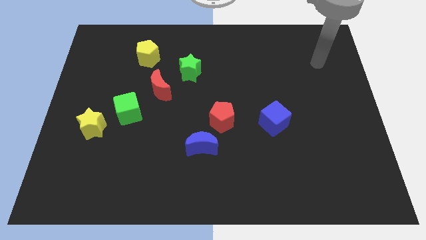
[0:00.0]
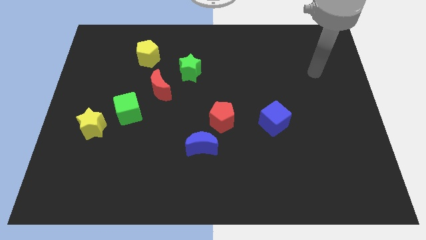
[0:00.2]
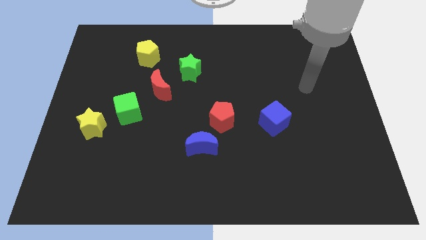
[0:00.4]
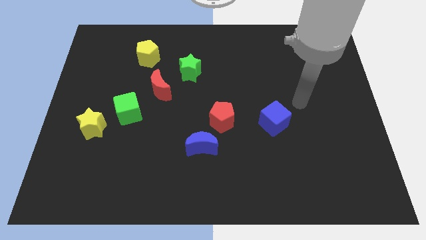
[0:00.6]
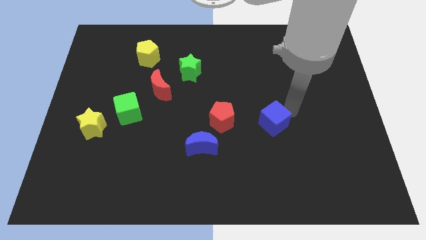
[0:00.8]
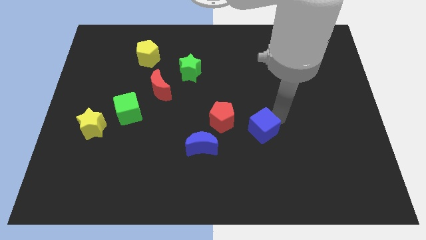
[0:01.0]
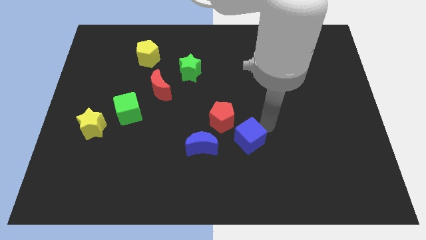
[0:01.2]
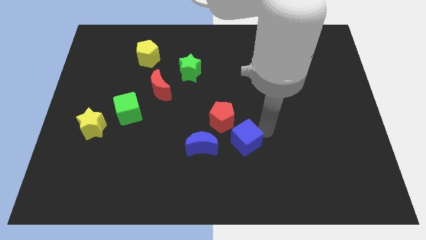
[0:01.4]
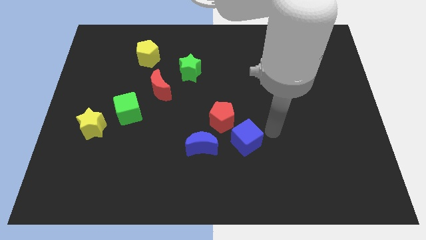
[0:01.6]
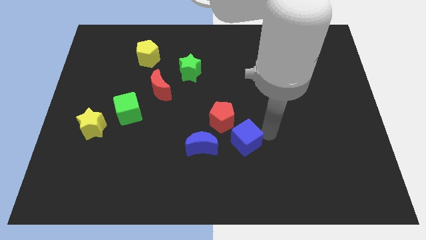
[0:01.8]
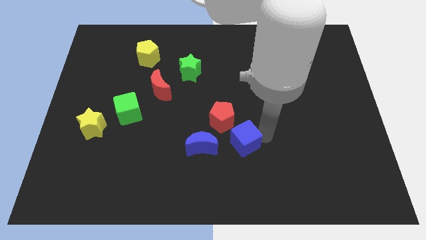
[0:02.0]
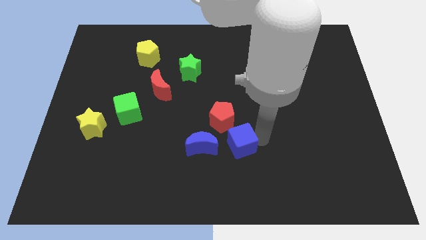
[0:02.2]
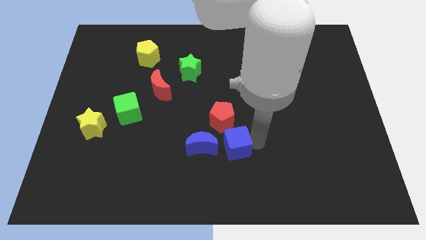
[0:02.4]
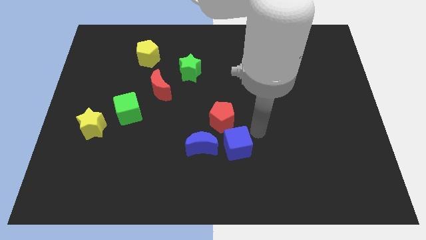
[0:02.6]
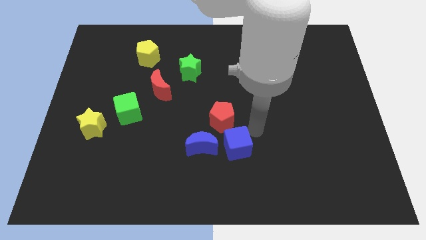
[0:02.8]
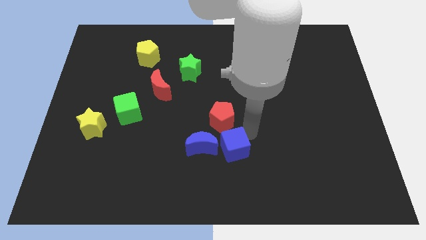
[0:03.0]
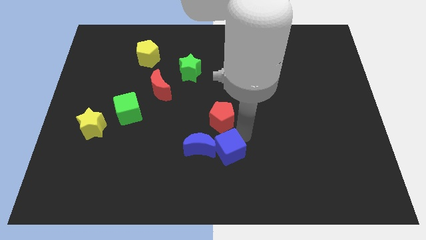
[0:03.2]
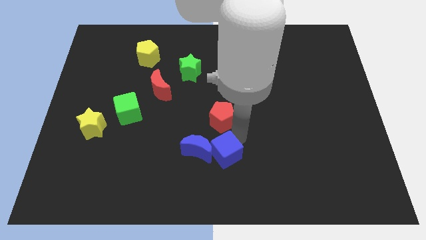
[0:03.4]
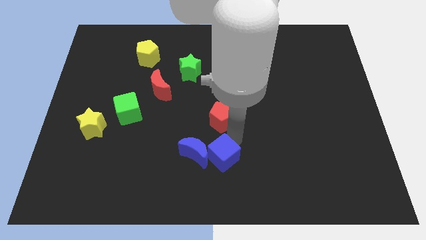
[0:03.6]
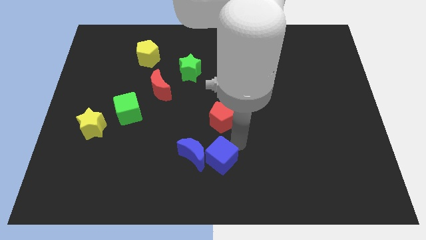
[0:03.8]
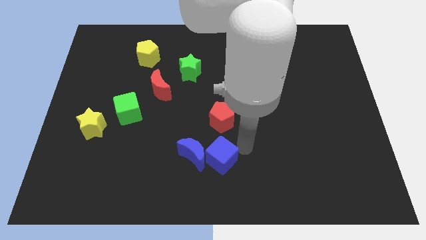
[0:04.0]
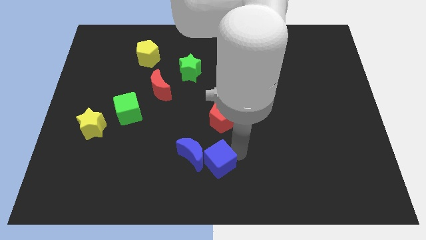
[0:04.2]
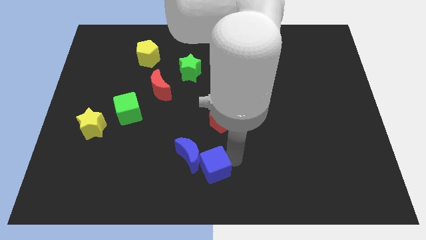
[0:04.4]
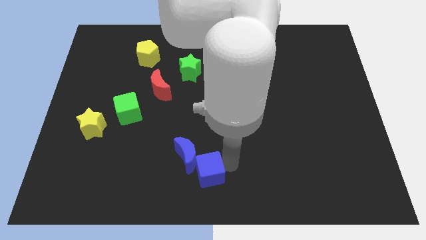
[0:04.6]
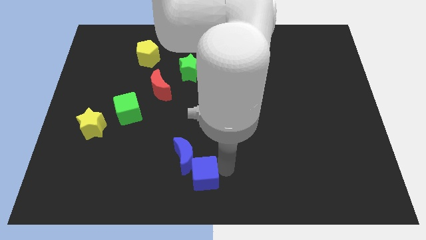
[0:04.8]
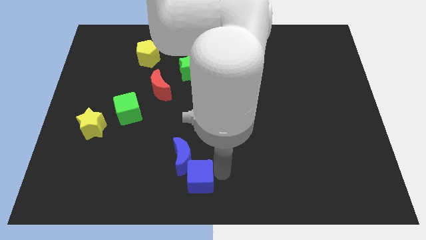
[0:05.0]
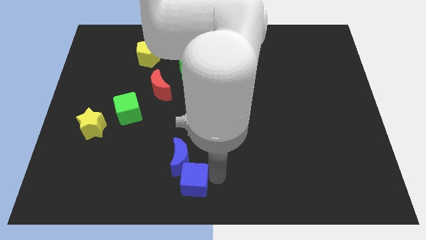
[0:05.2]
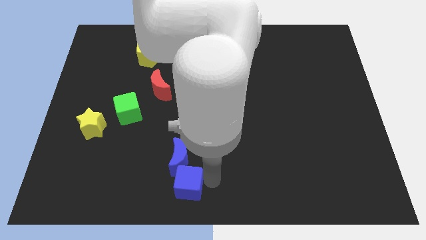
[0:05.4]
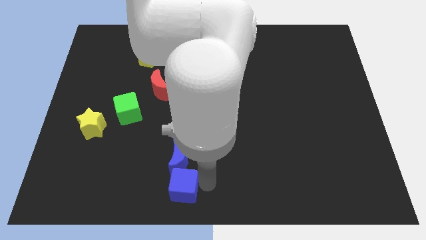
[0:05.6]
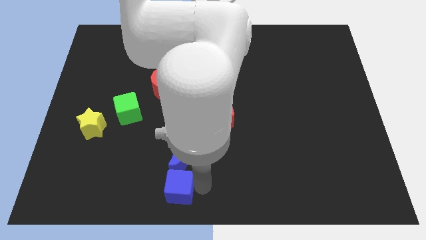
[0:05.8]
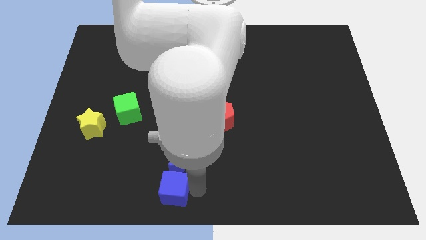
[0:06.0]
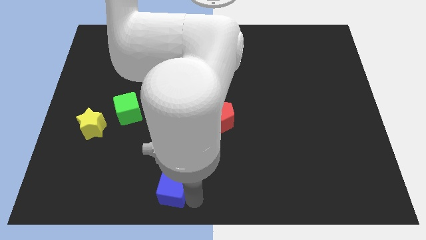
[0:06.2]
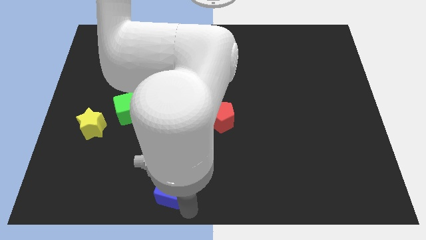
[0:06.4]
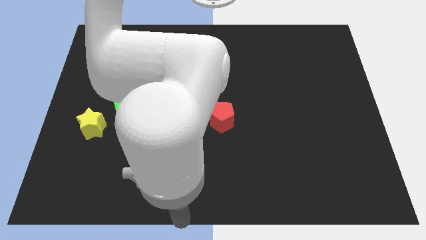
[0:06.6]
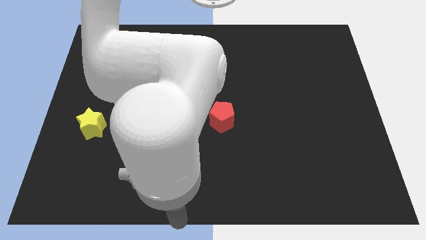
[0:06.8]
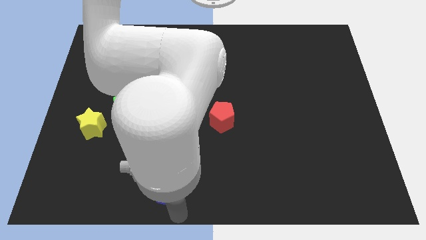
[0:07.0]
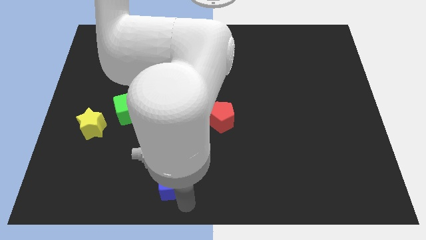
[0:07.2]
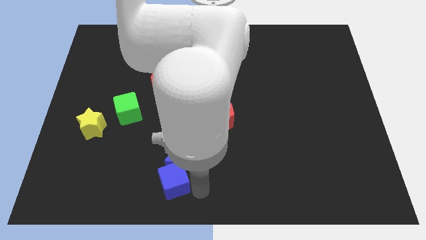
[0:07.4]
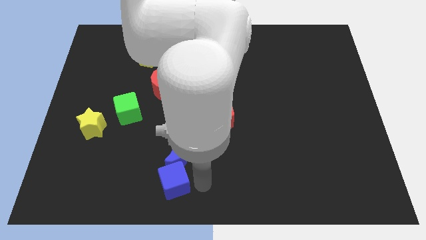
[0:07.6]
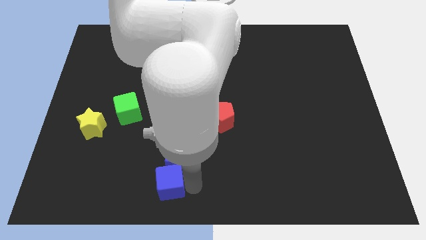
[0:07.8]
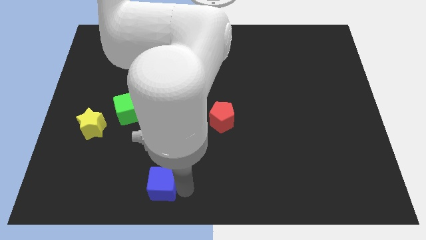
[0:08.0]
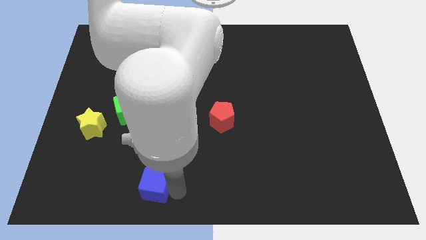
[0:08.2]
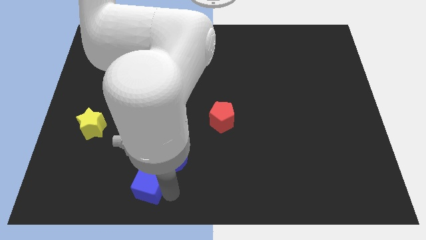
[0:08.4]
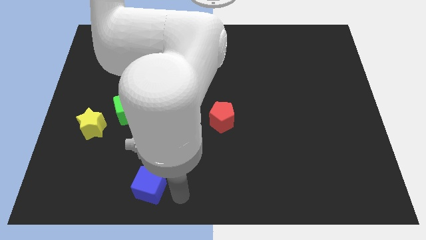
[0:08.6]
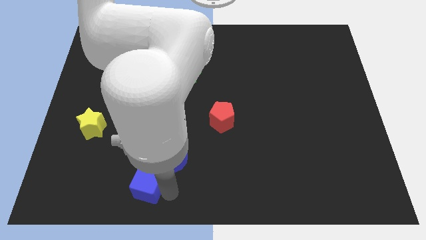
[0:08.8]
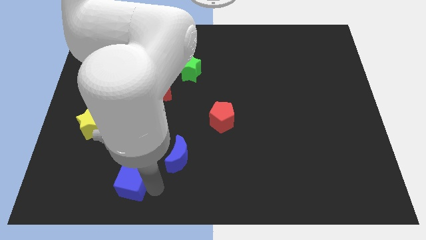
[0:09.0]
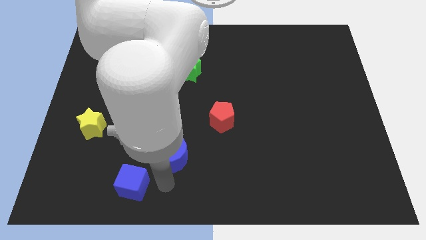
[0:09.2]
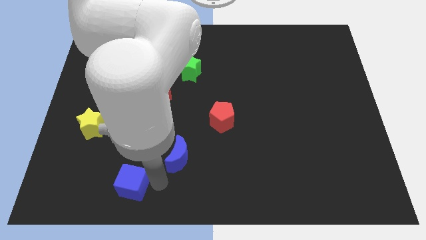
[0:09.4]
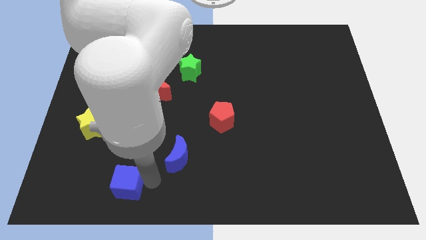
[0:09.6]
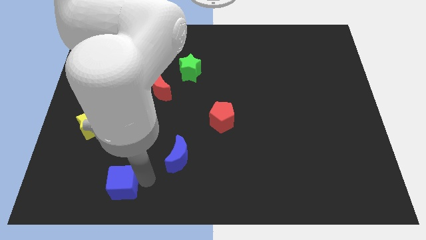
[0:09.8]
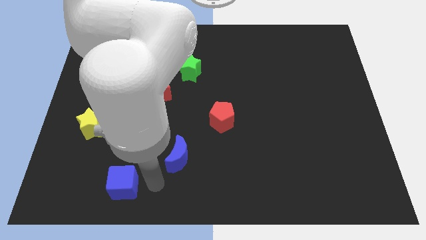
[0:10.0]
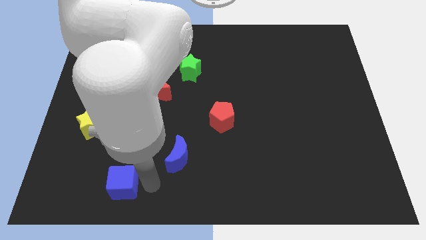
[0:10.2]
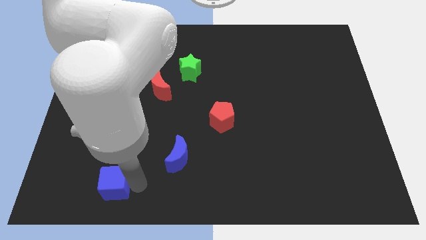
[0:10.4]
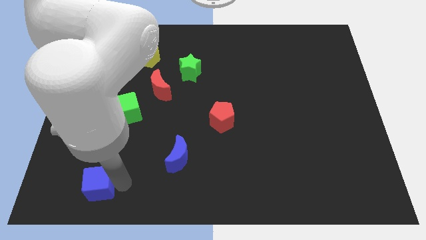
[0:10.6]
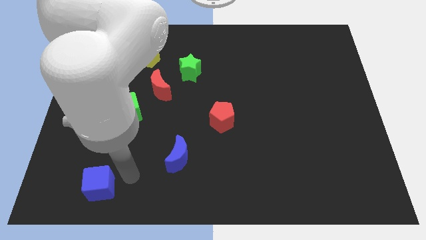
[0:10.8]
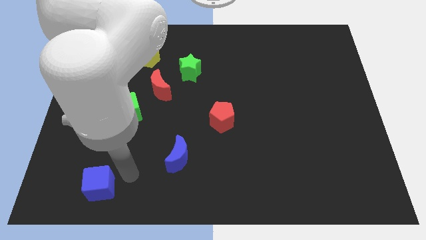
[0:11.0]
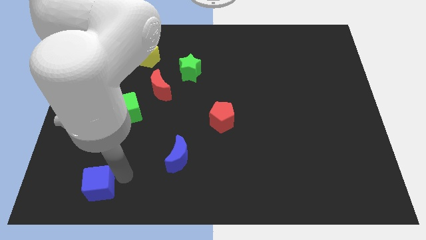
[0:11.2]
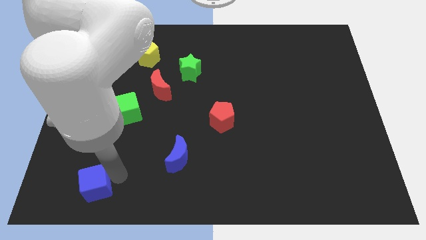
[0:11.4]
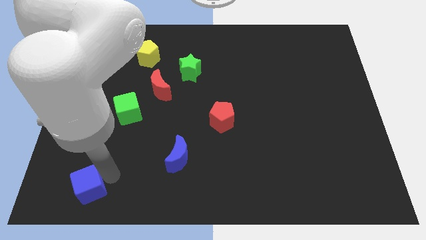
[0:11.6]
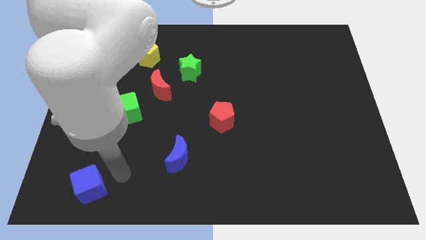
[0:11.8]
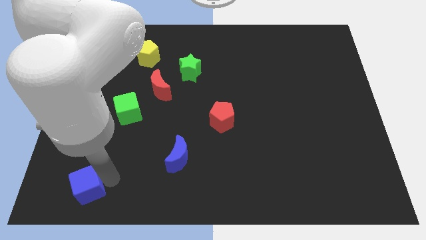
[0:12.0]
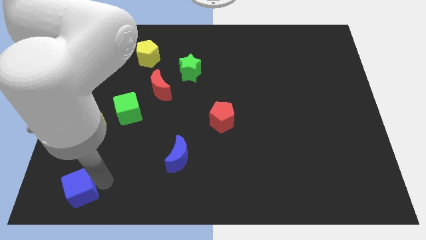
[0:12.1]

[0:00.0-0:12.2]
put the blue cube to the bottom left of the board
